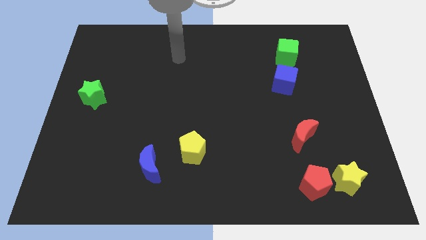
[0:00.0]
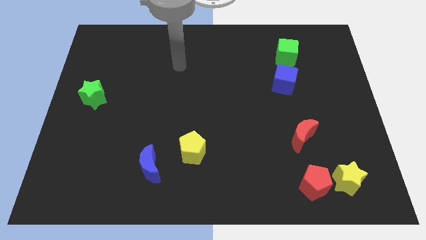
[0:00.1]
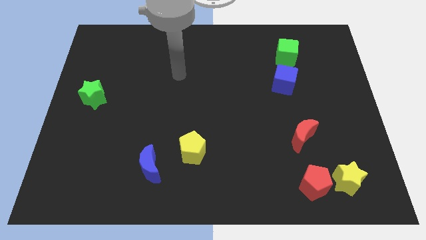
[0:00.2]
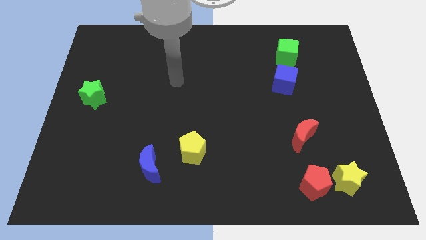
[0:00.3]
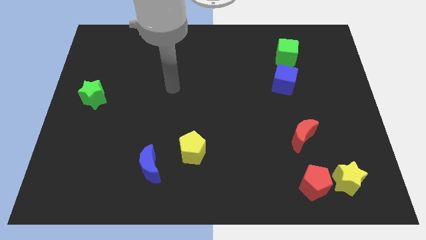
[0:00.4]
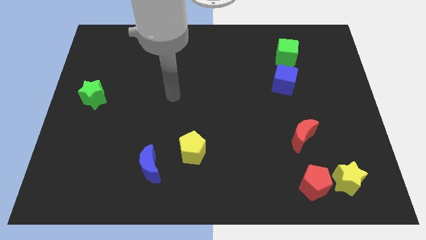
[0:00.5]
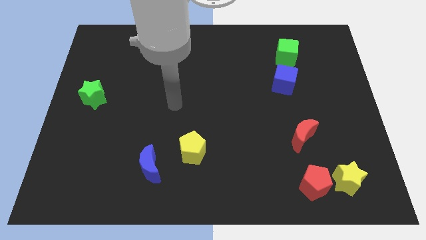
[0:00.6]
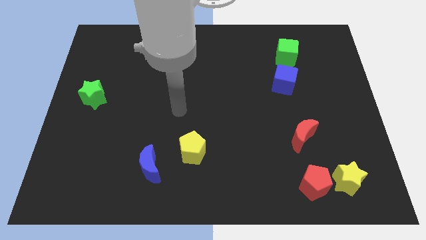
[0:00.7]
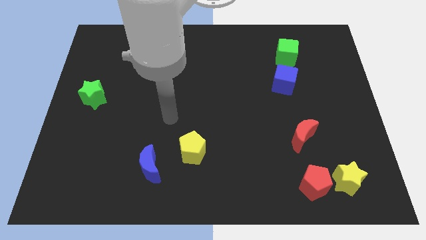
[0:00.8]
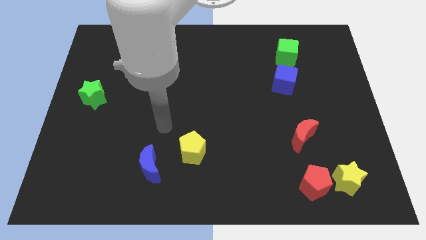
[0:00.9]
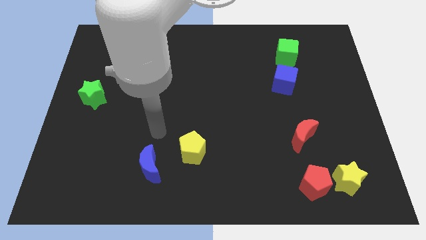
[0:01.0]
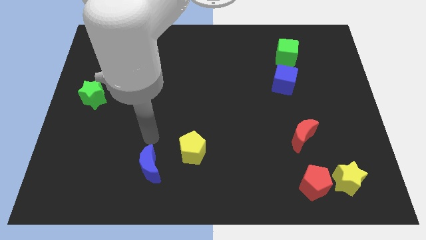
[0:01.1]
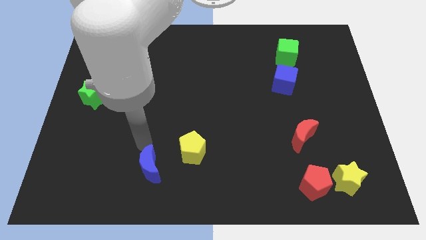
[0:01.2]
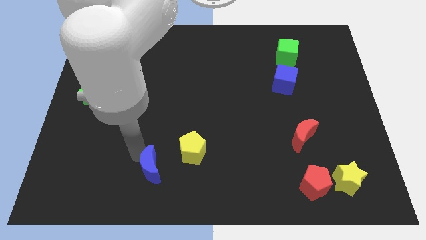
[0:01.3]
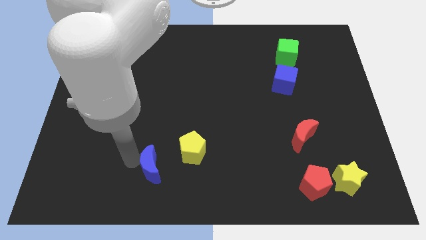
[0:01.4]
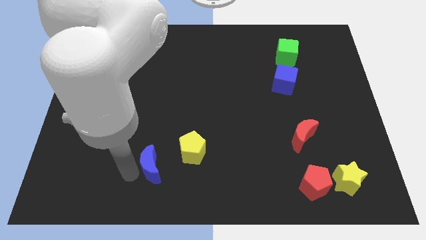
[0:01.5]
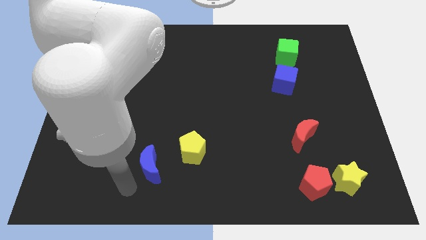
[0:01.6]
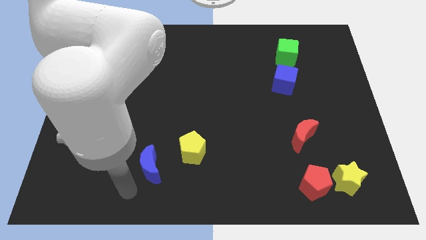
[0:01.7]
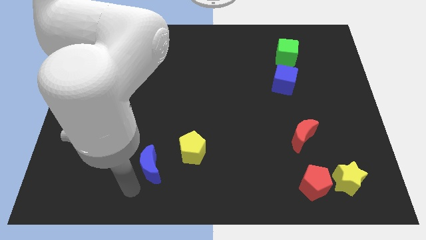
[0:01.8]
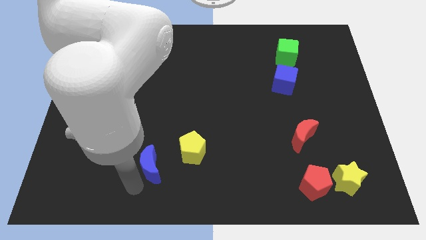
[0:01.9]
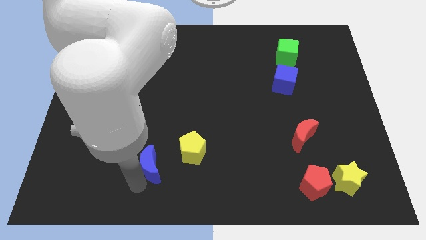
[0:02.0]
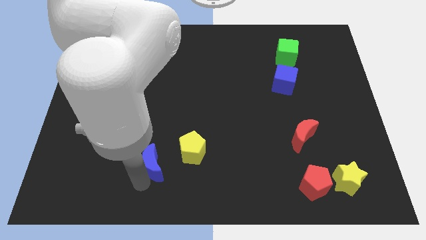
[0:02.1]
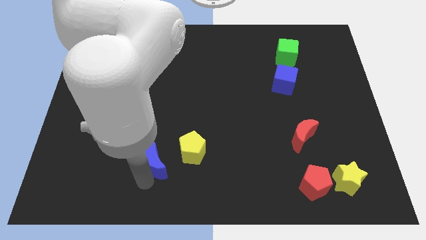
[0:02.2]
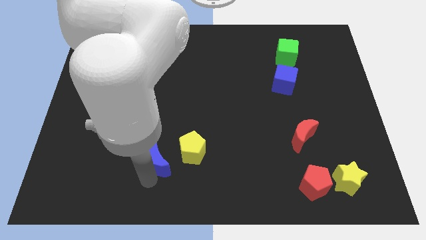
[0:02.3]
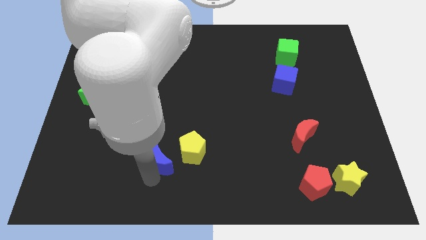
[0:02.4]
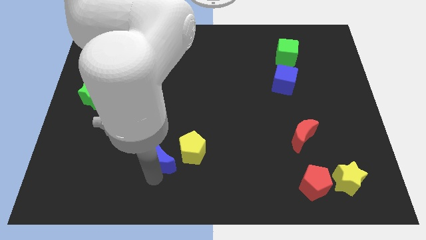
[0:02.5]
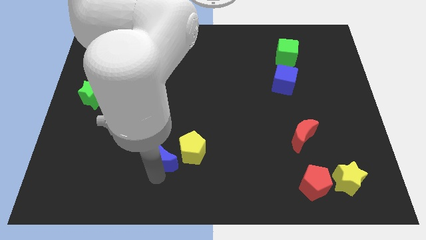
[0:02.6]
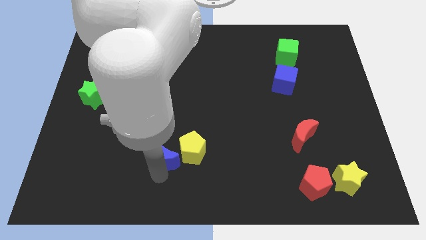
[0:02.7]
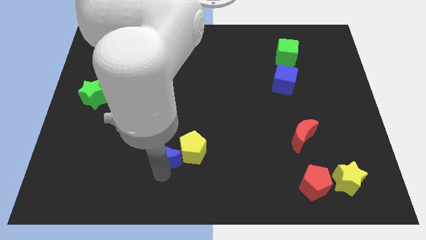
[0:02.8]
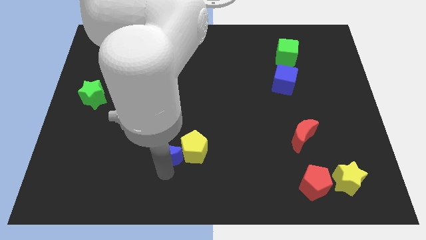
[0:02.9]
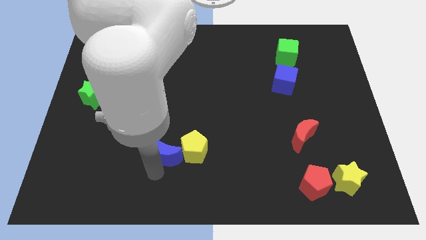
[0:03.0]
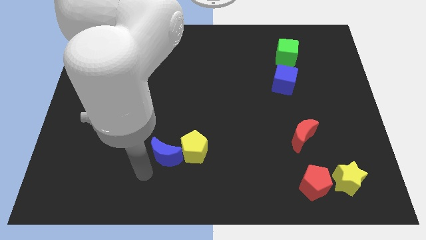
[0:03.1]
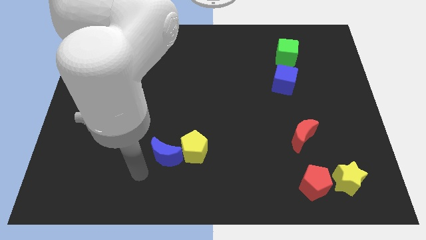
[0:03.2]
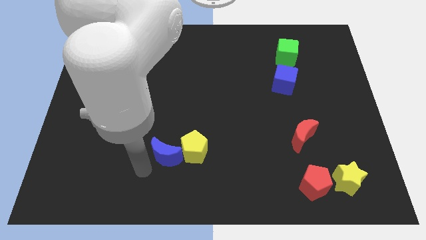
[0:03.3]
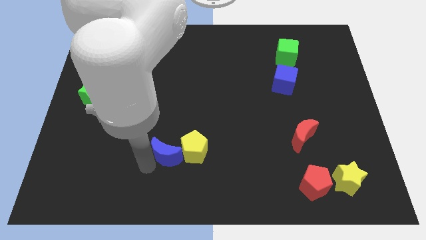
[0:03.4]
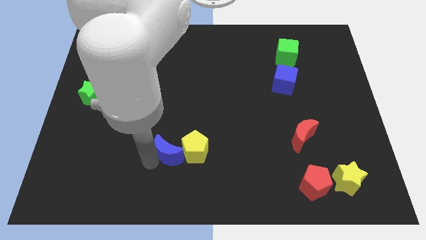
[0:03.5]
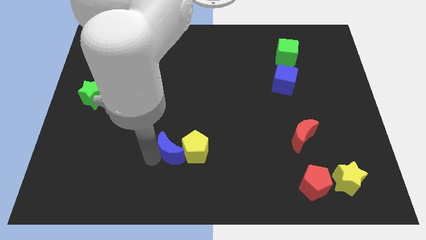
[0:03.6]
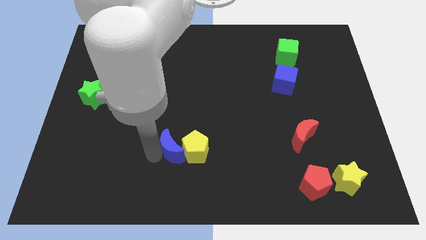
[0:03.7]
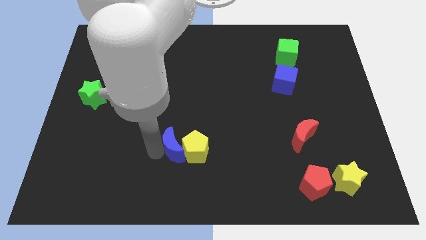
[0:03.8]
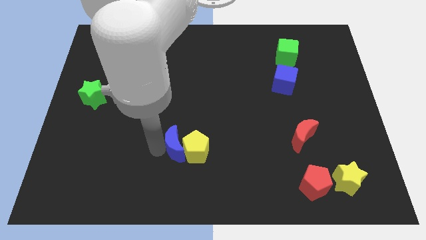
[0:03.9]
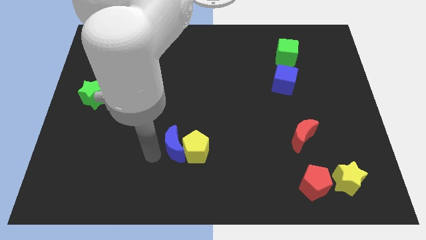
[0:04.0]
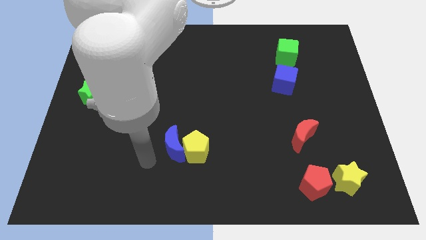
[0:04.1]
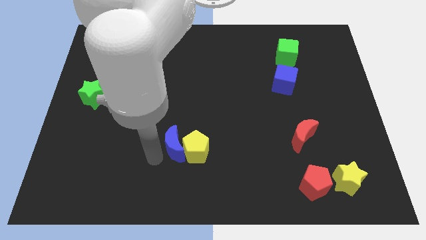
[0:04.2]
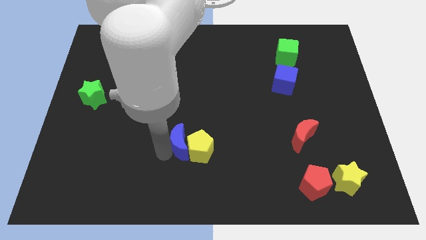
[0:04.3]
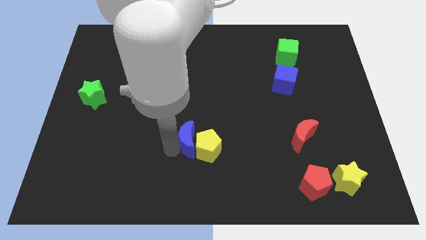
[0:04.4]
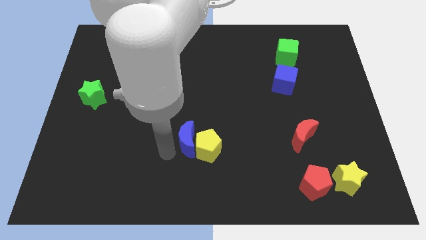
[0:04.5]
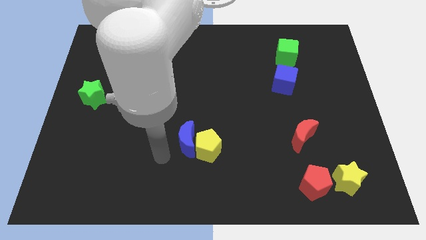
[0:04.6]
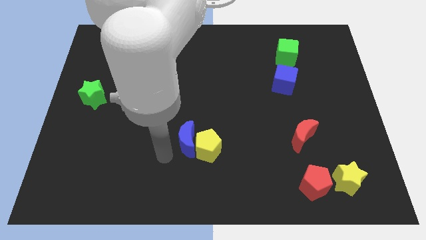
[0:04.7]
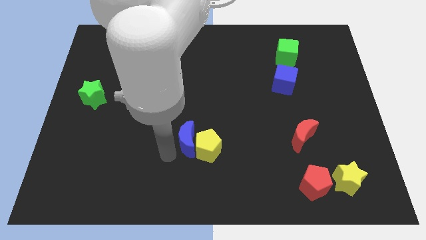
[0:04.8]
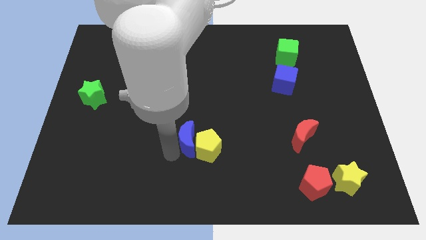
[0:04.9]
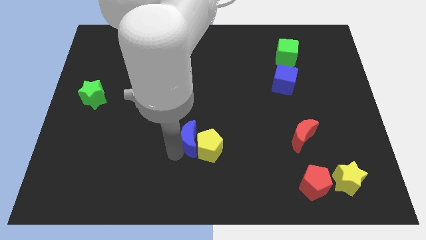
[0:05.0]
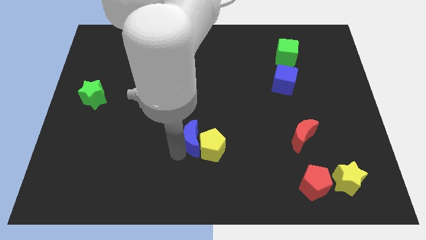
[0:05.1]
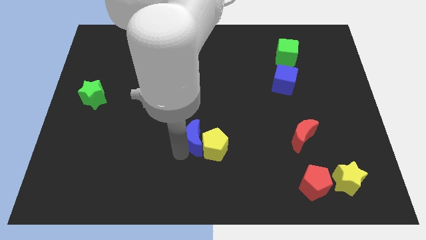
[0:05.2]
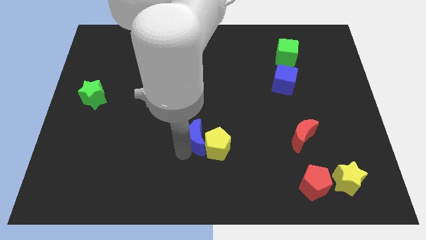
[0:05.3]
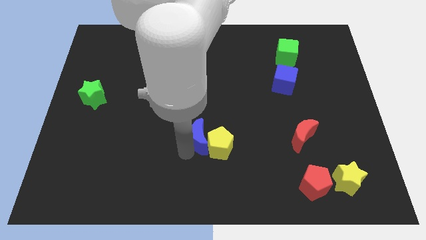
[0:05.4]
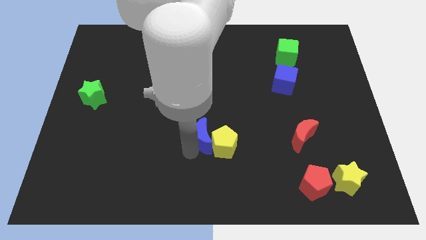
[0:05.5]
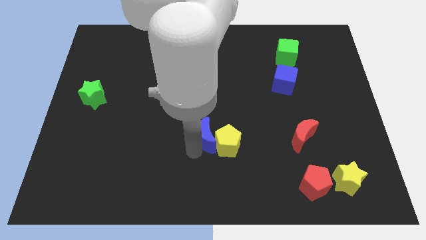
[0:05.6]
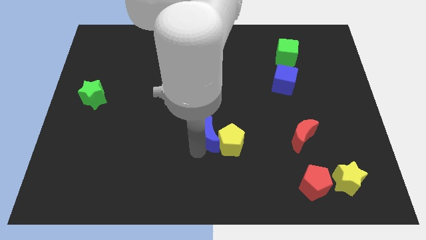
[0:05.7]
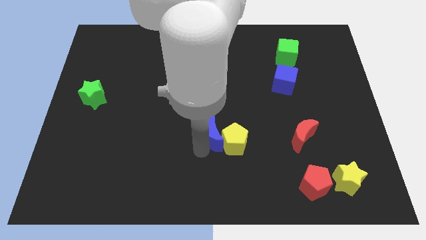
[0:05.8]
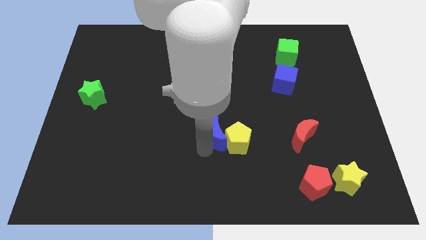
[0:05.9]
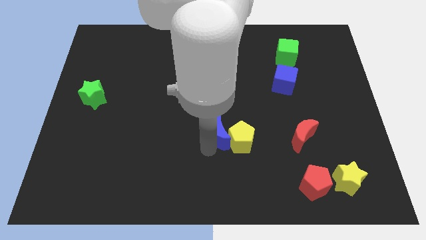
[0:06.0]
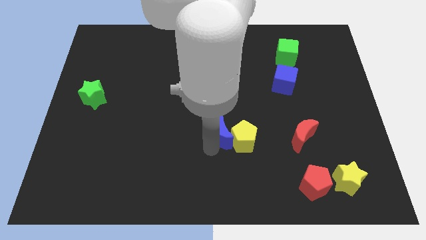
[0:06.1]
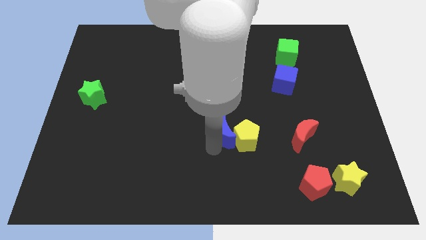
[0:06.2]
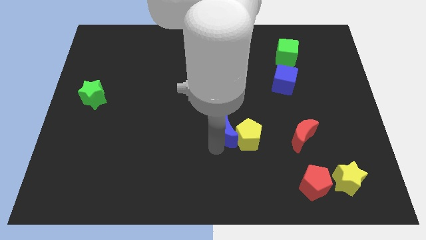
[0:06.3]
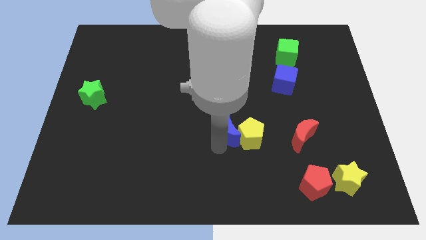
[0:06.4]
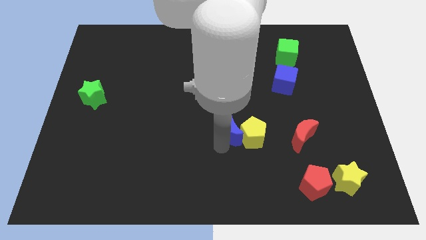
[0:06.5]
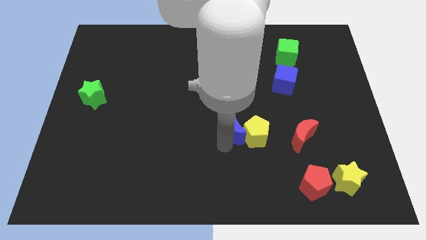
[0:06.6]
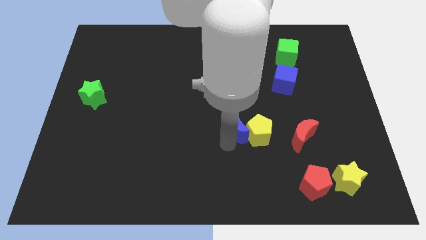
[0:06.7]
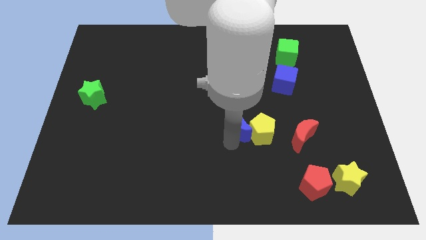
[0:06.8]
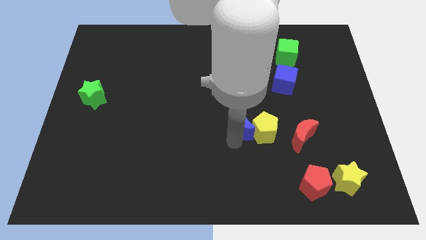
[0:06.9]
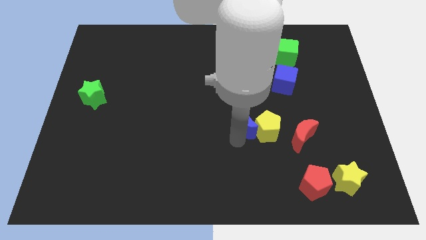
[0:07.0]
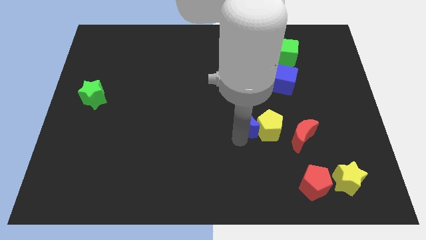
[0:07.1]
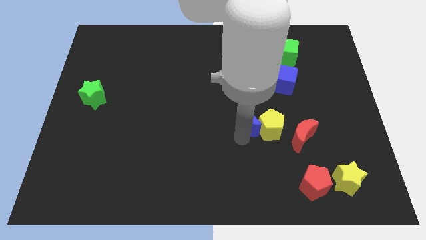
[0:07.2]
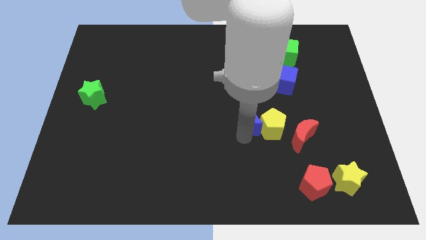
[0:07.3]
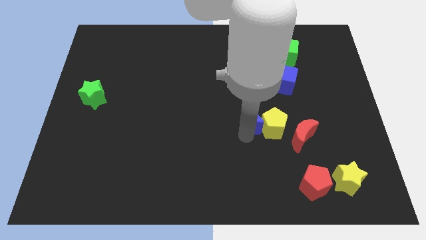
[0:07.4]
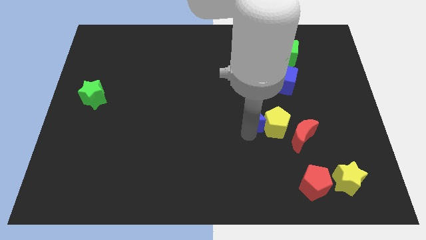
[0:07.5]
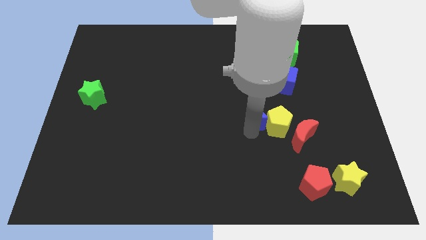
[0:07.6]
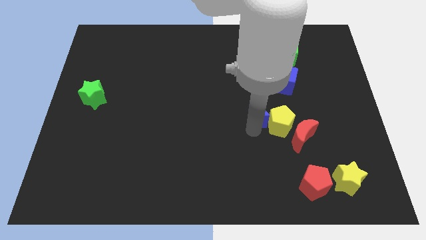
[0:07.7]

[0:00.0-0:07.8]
put the blue moon to the bottom left side of the blue cube
